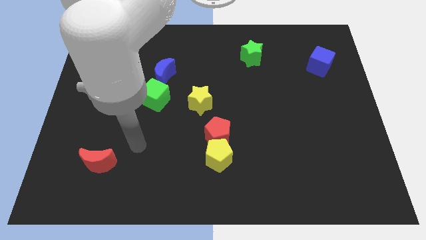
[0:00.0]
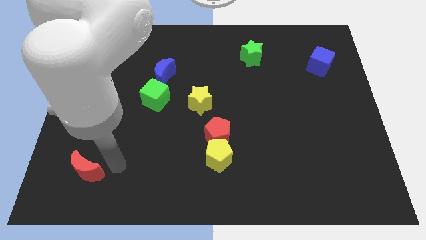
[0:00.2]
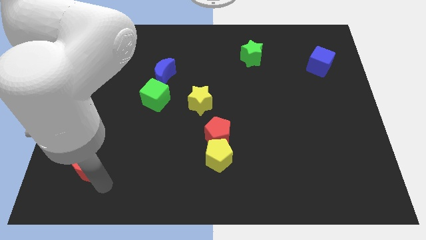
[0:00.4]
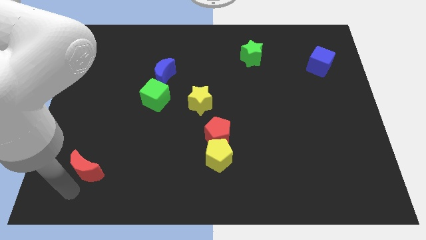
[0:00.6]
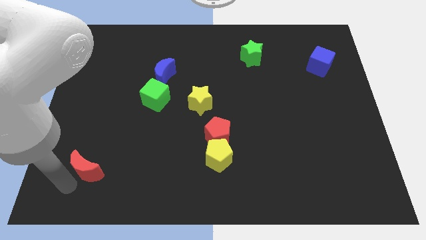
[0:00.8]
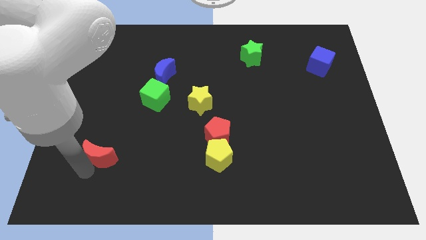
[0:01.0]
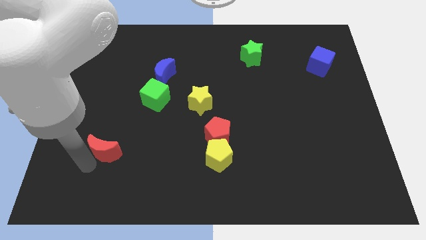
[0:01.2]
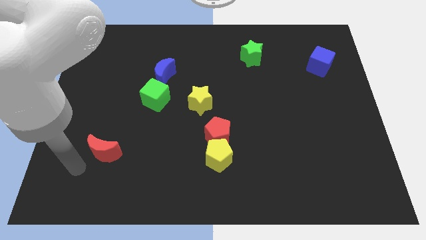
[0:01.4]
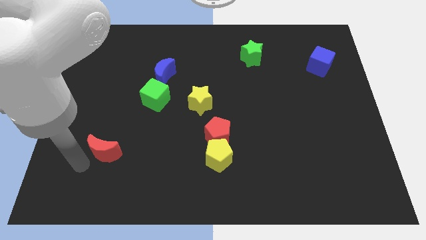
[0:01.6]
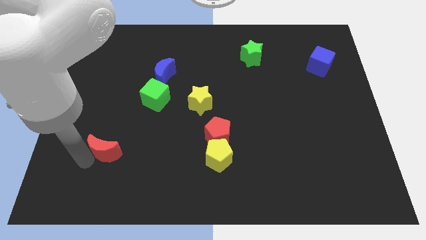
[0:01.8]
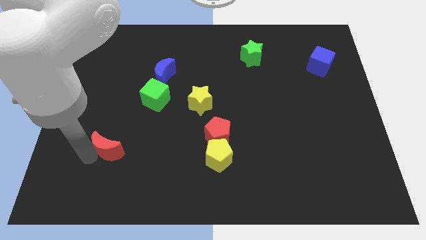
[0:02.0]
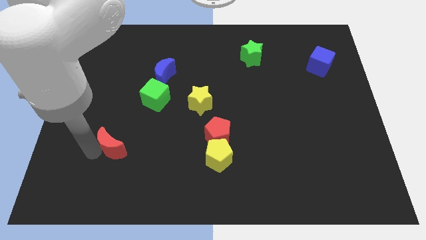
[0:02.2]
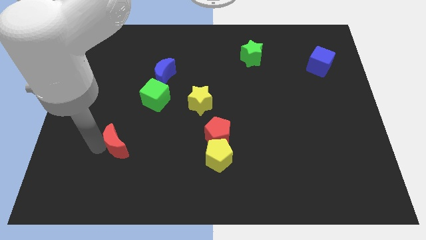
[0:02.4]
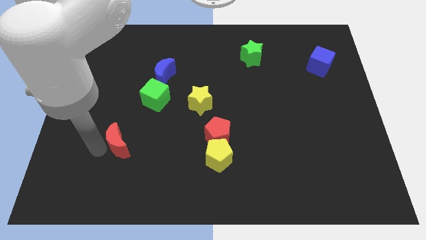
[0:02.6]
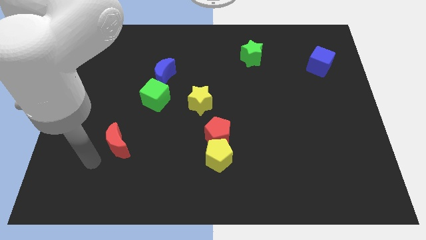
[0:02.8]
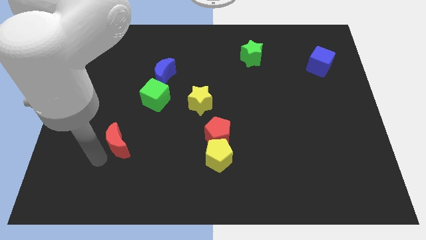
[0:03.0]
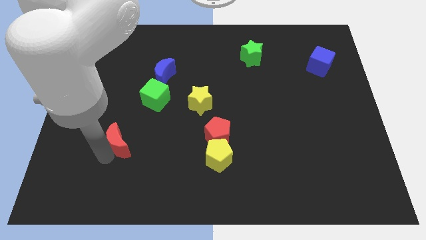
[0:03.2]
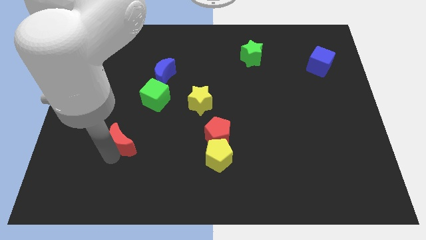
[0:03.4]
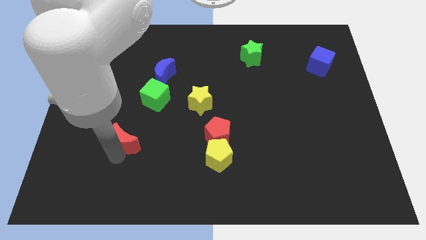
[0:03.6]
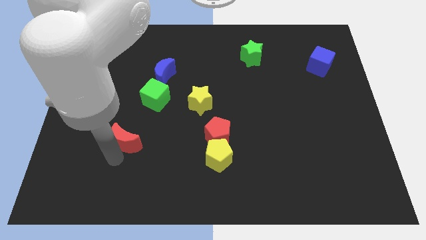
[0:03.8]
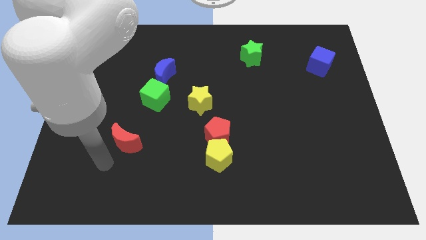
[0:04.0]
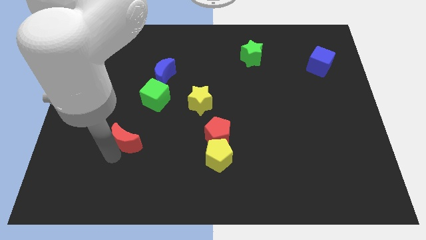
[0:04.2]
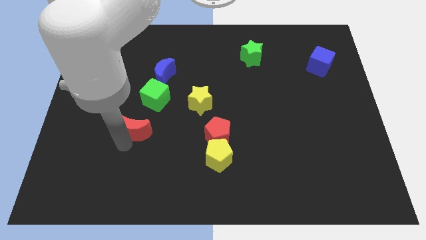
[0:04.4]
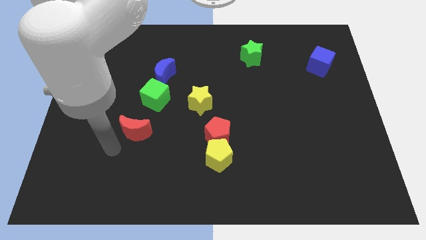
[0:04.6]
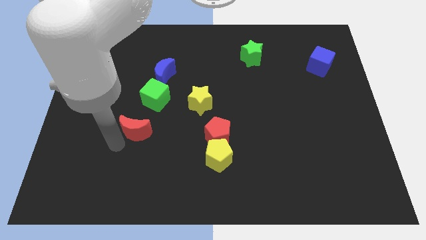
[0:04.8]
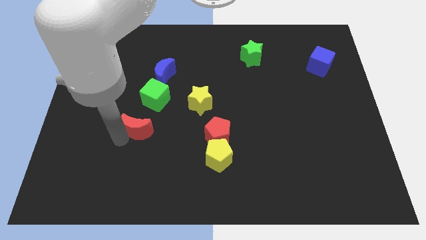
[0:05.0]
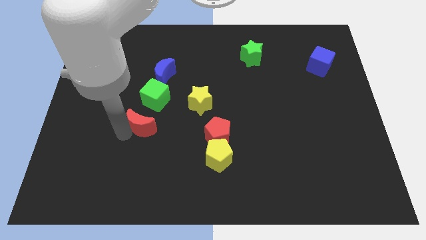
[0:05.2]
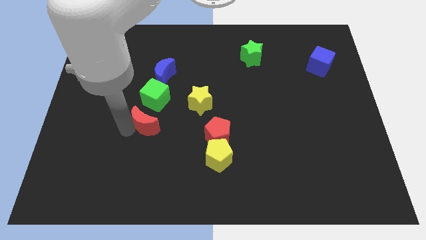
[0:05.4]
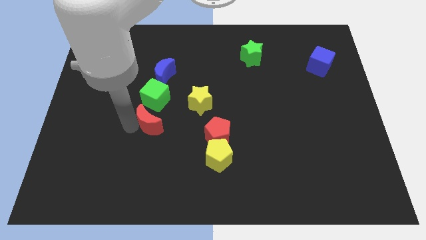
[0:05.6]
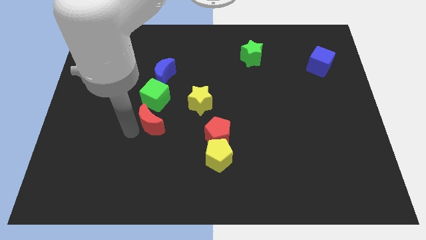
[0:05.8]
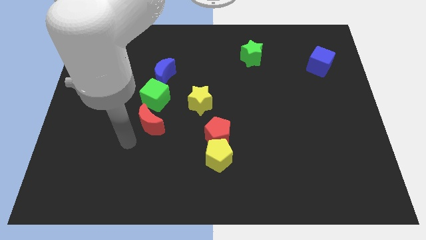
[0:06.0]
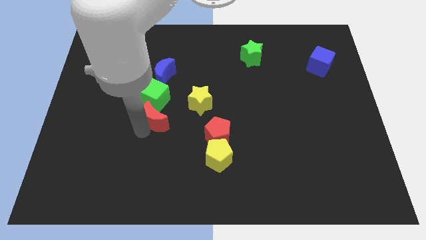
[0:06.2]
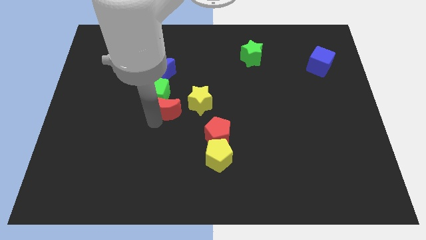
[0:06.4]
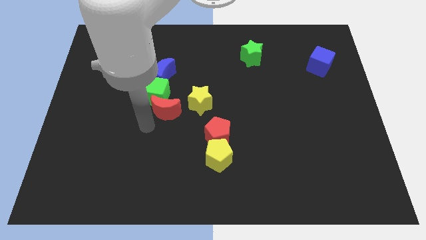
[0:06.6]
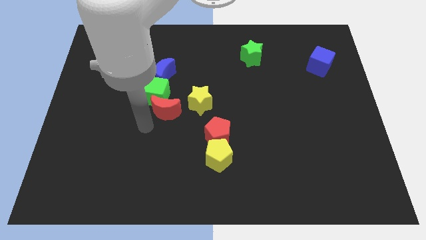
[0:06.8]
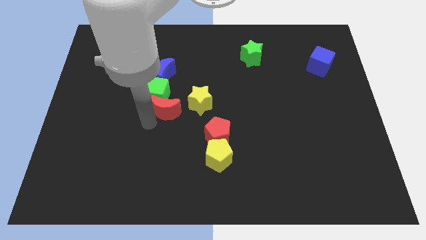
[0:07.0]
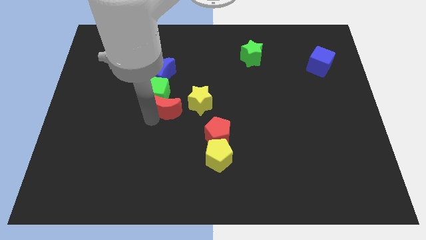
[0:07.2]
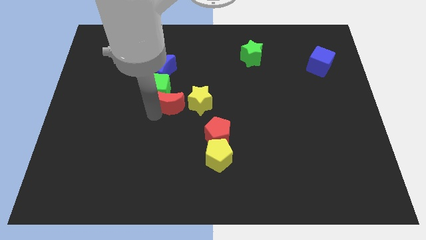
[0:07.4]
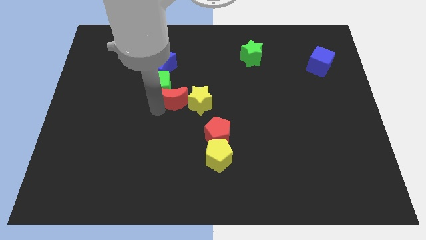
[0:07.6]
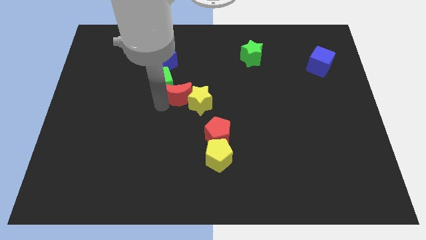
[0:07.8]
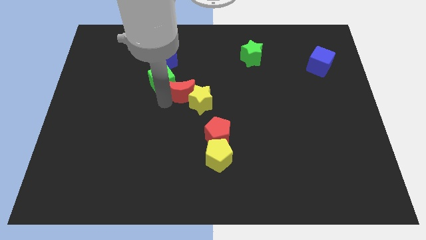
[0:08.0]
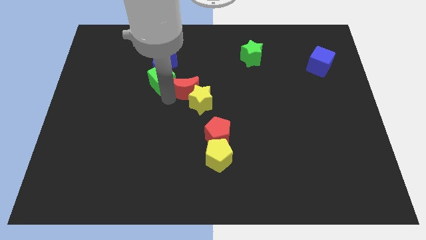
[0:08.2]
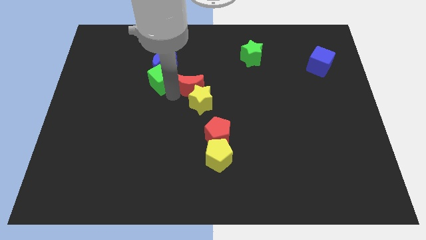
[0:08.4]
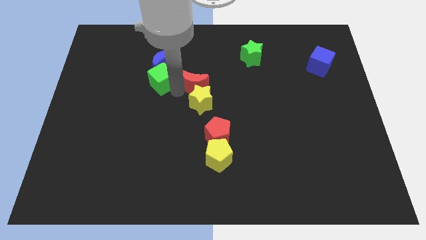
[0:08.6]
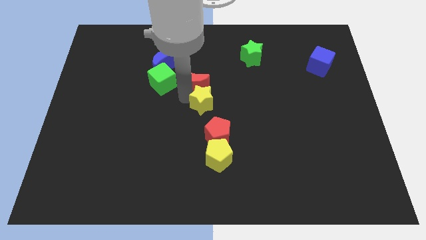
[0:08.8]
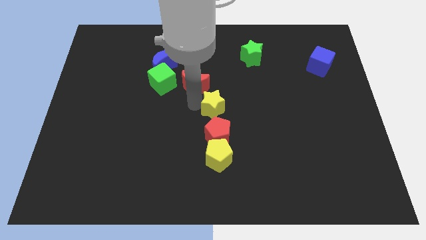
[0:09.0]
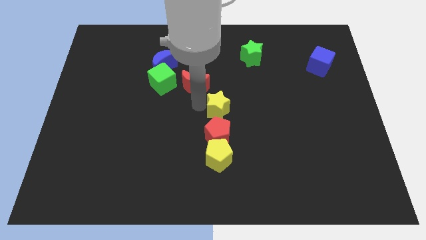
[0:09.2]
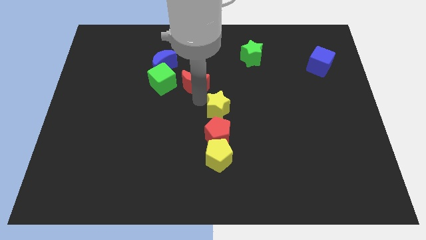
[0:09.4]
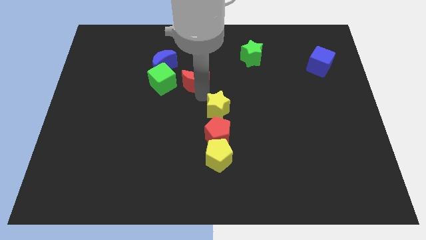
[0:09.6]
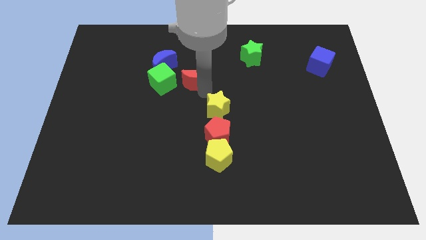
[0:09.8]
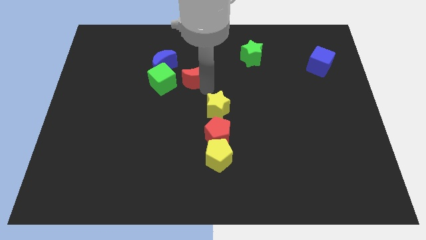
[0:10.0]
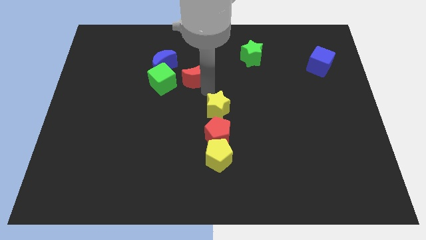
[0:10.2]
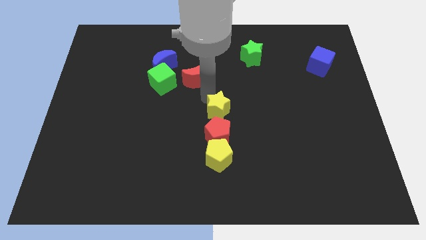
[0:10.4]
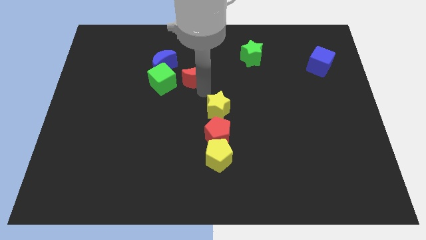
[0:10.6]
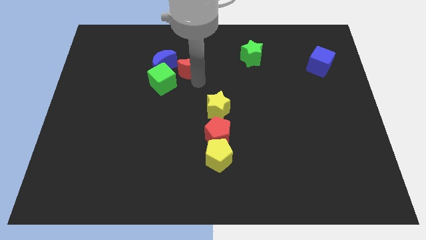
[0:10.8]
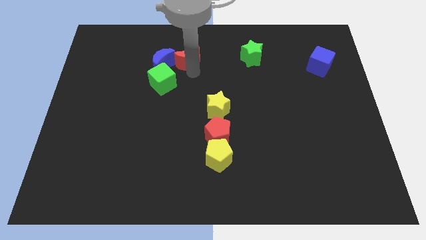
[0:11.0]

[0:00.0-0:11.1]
move the red moon to the top right of the blue moon

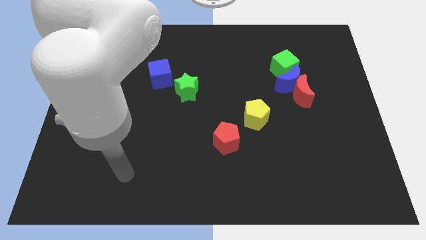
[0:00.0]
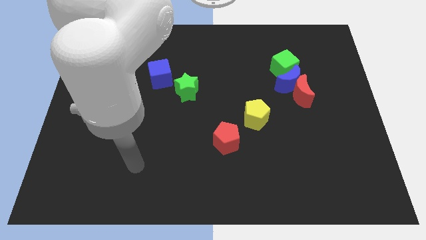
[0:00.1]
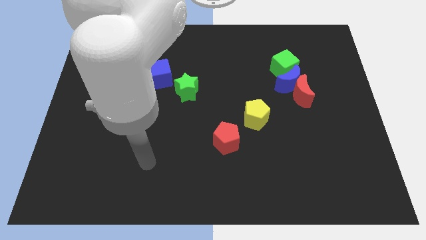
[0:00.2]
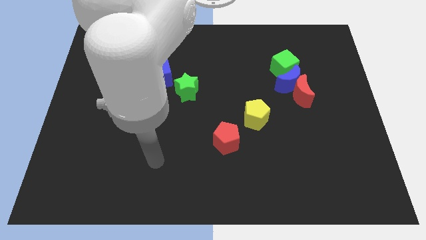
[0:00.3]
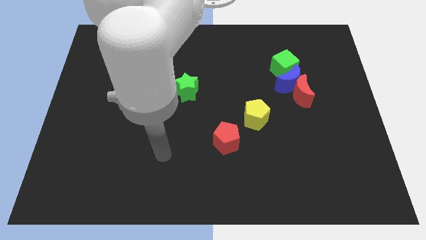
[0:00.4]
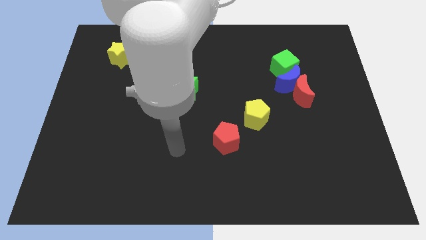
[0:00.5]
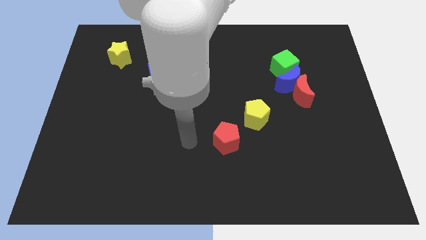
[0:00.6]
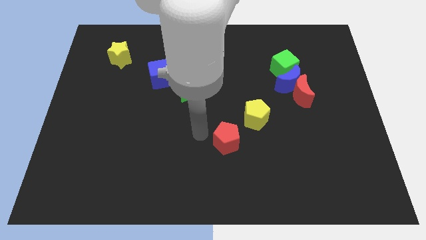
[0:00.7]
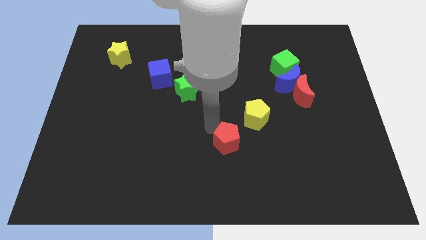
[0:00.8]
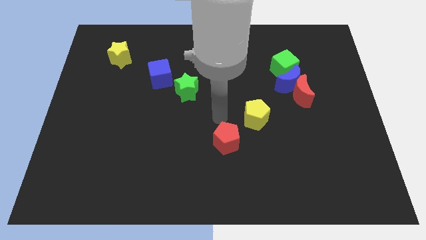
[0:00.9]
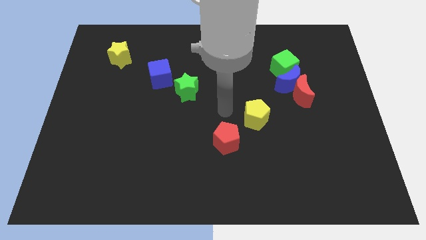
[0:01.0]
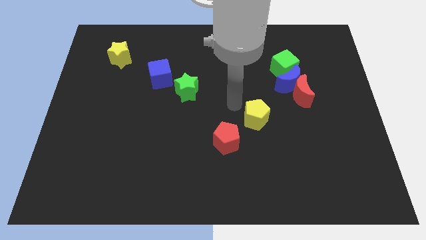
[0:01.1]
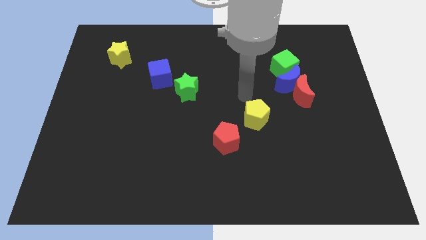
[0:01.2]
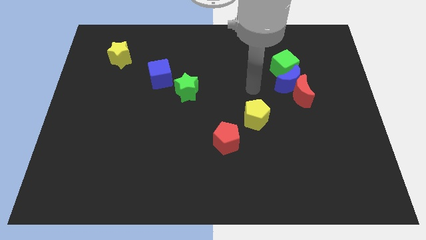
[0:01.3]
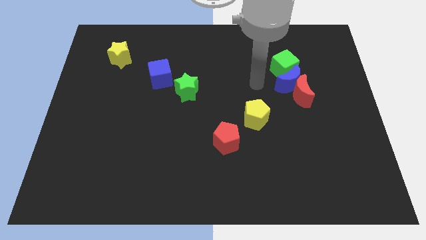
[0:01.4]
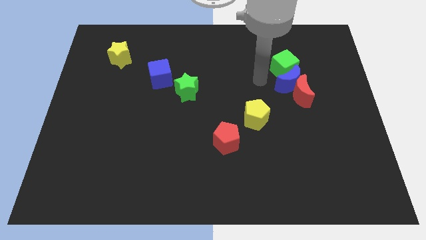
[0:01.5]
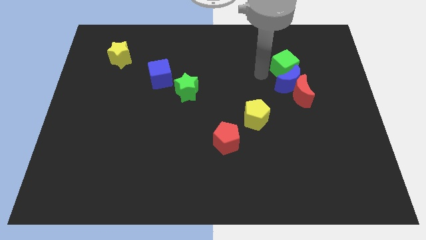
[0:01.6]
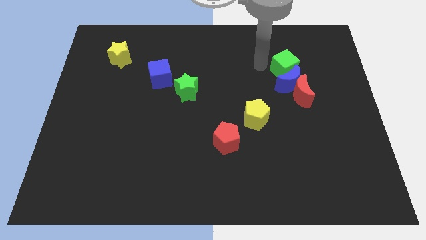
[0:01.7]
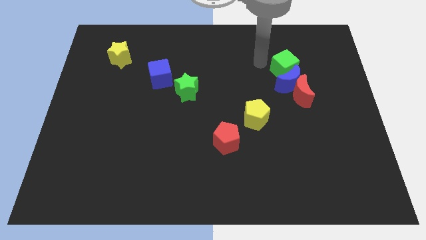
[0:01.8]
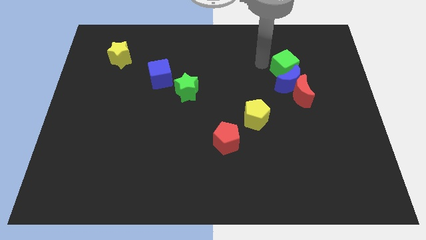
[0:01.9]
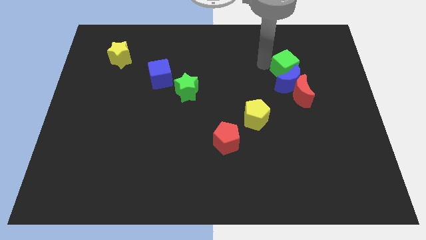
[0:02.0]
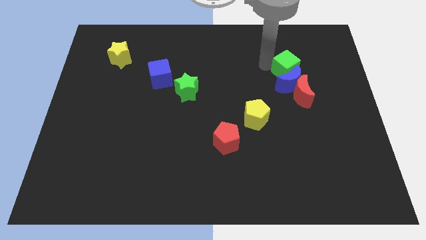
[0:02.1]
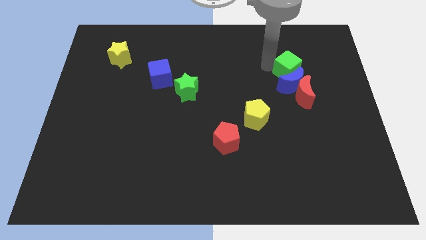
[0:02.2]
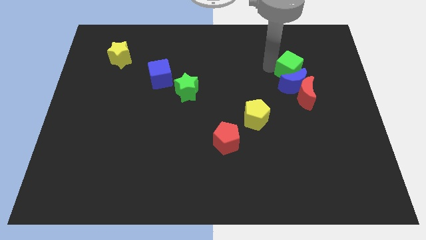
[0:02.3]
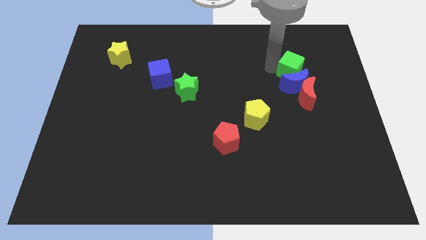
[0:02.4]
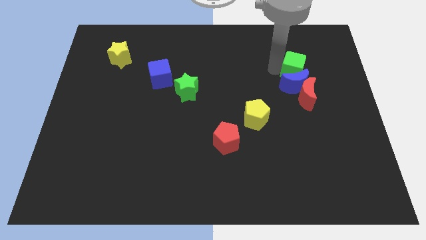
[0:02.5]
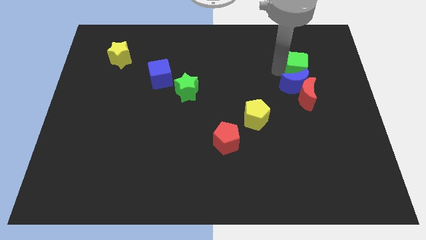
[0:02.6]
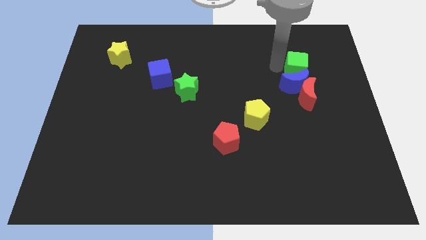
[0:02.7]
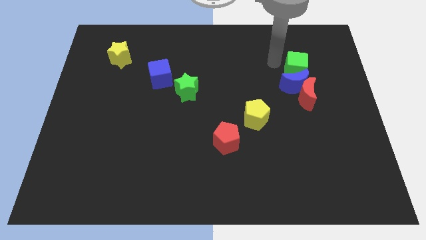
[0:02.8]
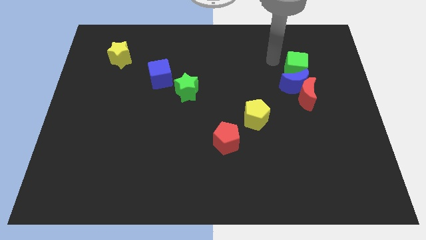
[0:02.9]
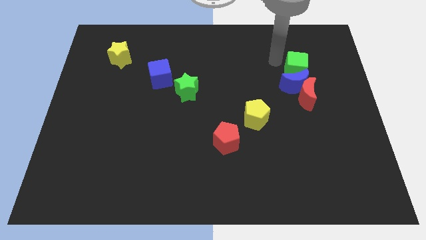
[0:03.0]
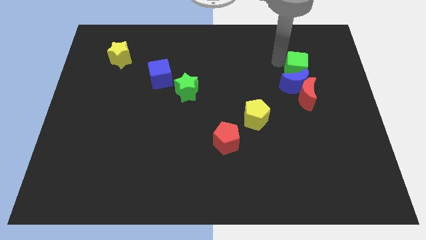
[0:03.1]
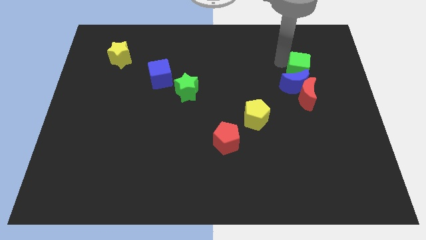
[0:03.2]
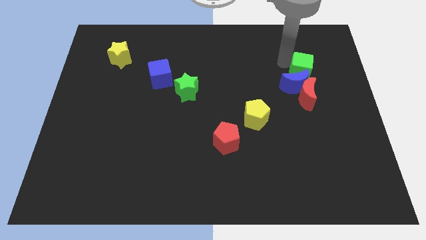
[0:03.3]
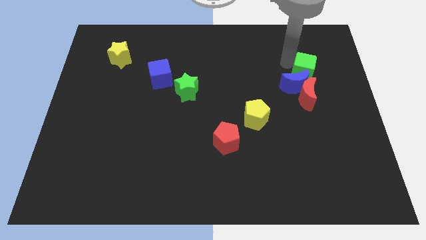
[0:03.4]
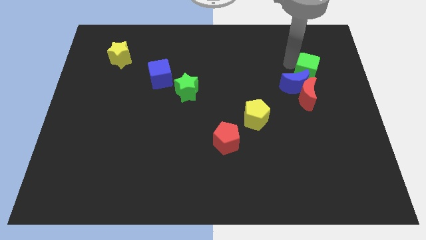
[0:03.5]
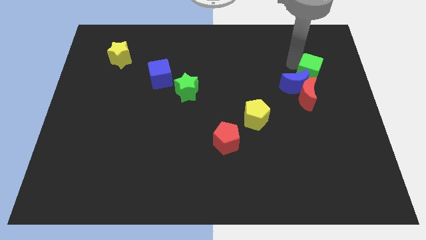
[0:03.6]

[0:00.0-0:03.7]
move the green cube to the top right side of the red moon
